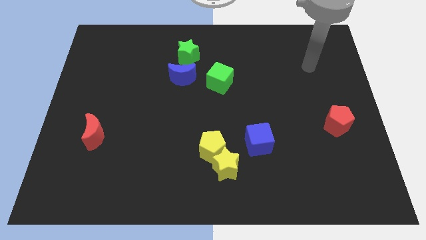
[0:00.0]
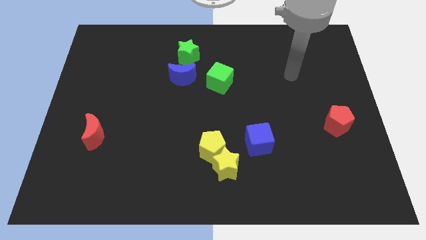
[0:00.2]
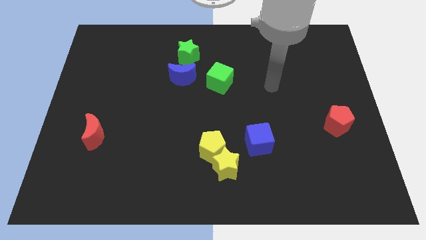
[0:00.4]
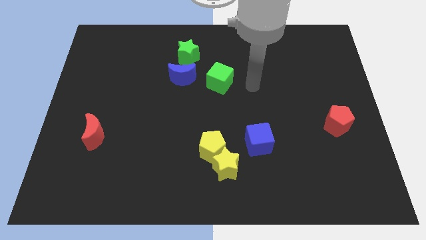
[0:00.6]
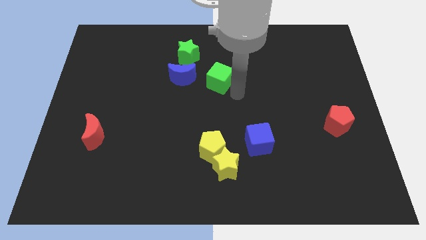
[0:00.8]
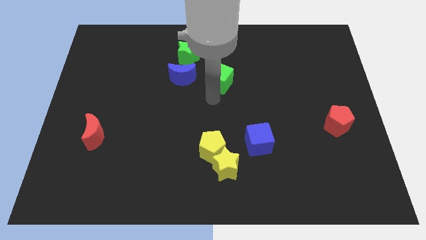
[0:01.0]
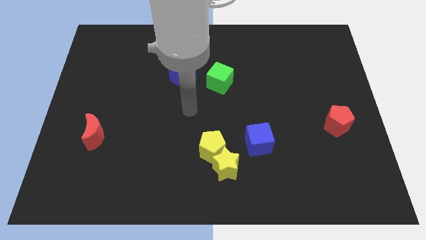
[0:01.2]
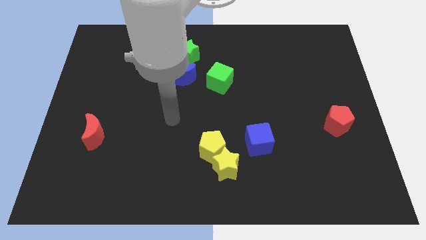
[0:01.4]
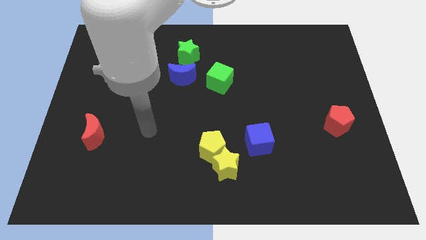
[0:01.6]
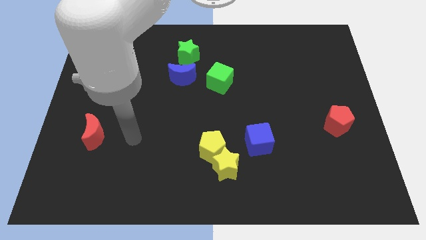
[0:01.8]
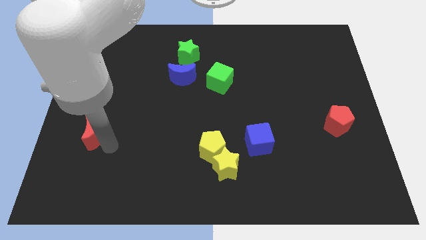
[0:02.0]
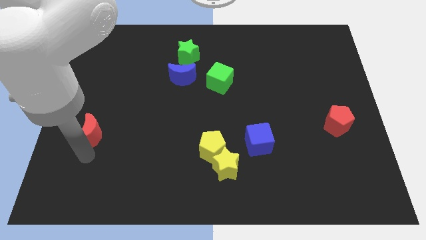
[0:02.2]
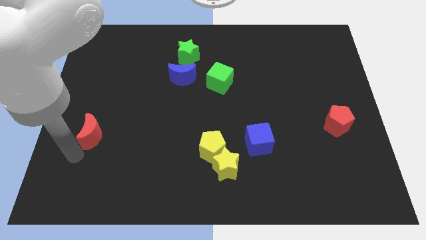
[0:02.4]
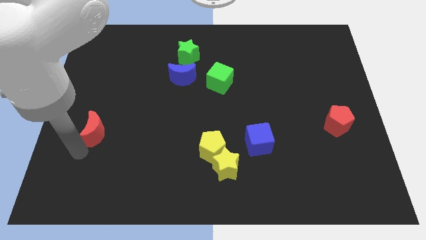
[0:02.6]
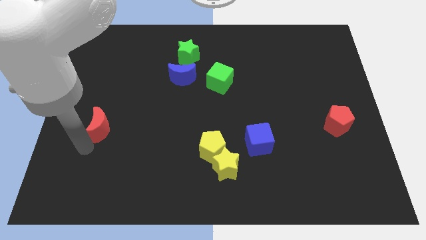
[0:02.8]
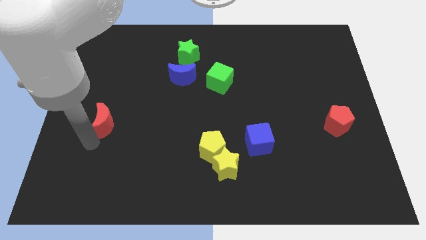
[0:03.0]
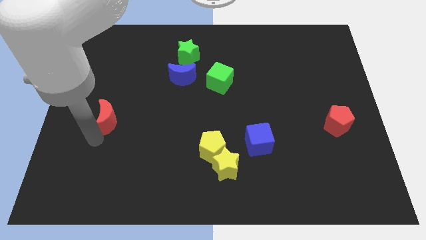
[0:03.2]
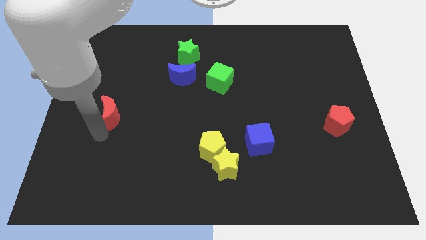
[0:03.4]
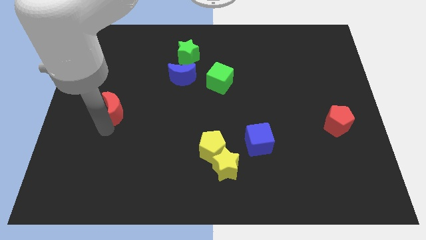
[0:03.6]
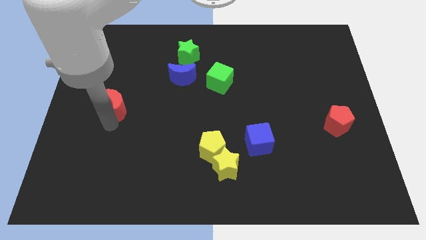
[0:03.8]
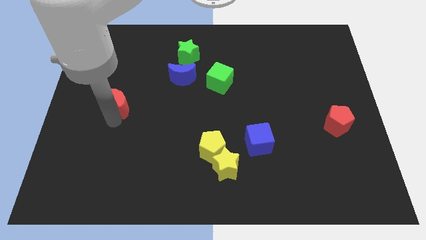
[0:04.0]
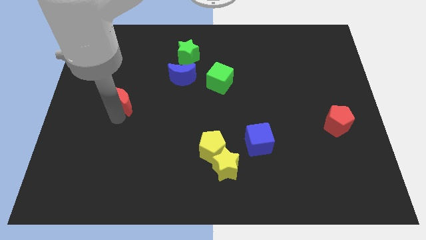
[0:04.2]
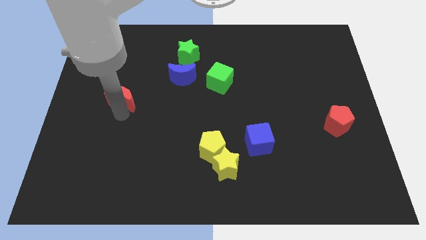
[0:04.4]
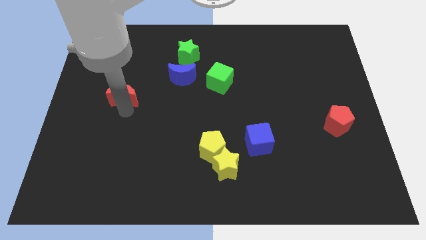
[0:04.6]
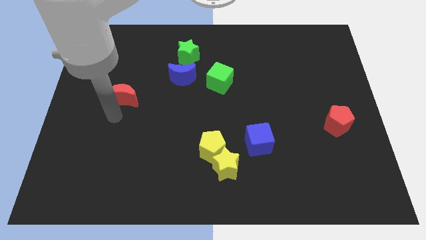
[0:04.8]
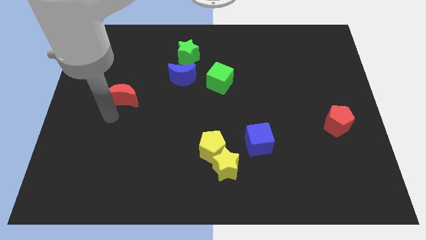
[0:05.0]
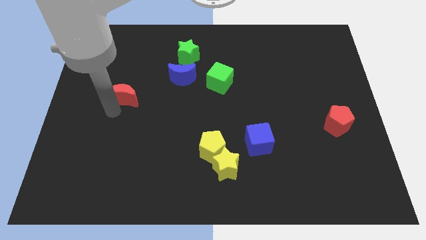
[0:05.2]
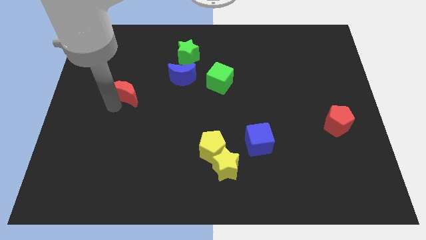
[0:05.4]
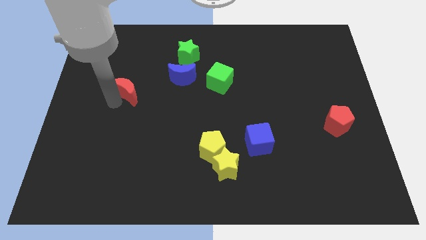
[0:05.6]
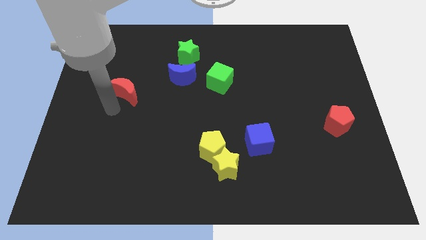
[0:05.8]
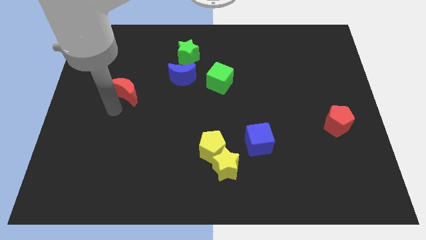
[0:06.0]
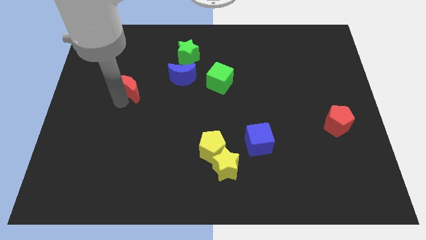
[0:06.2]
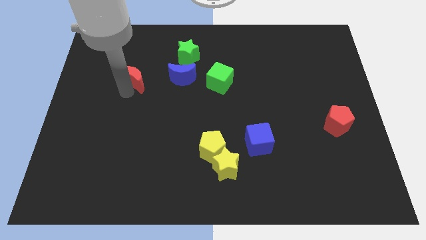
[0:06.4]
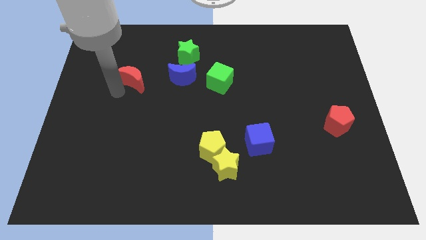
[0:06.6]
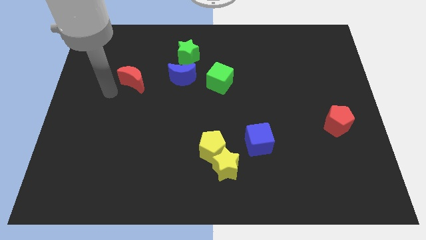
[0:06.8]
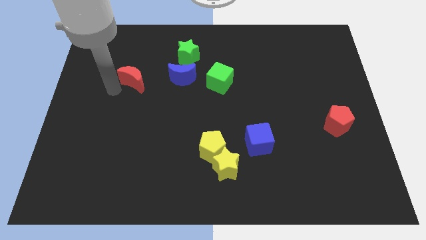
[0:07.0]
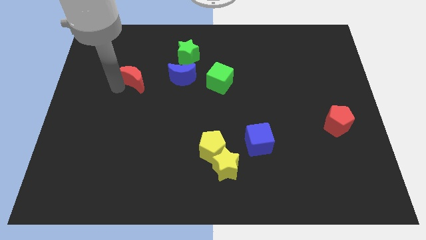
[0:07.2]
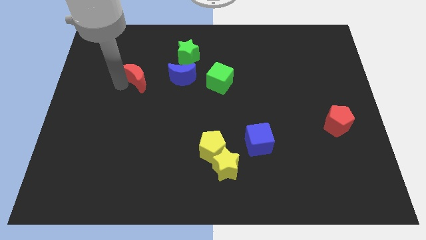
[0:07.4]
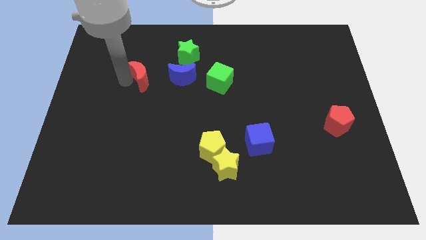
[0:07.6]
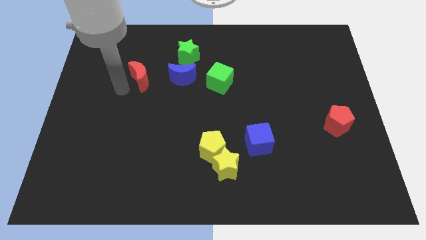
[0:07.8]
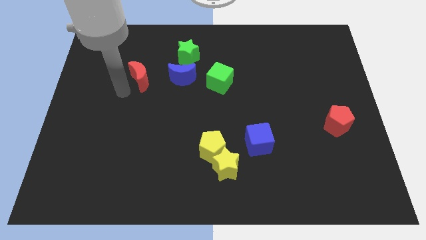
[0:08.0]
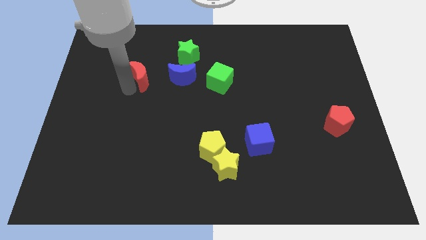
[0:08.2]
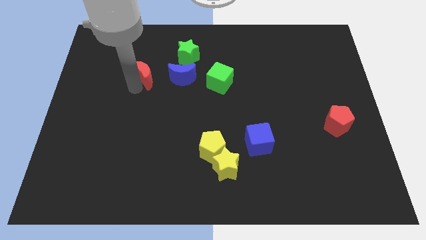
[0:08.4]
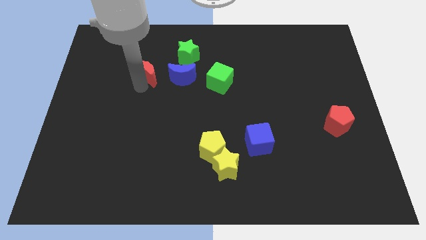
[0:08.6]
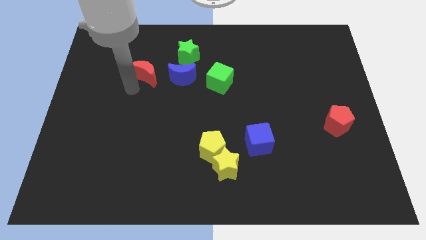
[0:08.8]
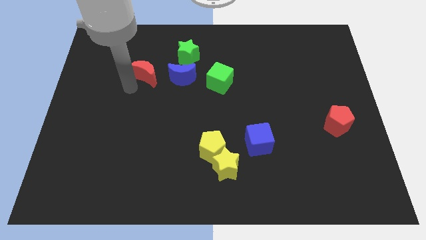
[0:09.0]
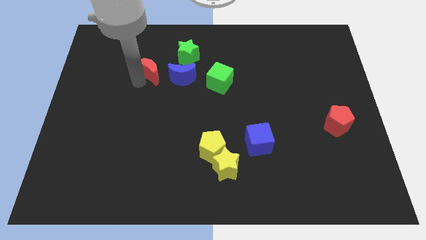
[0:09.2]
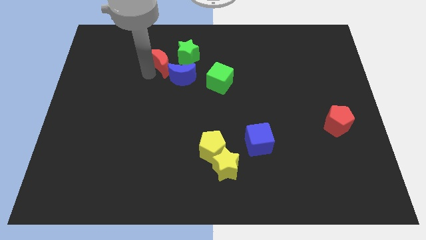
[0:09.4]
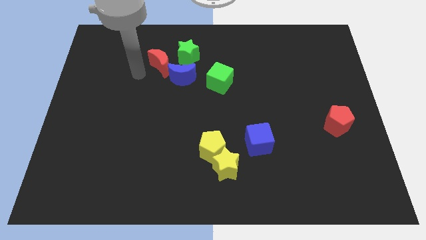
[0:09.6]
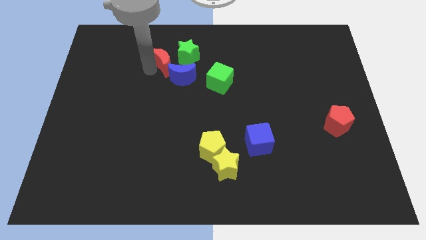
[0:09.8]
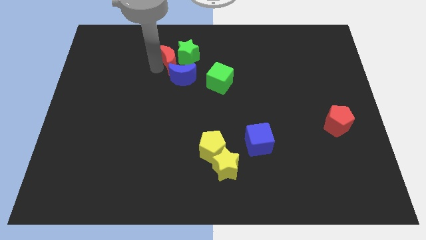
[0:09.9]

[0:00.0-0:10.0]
move the red moon next to the green star

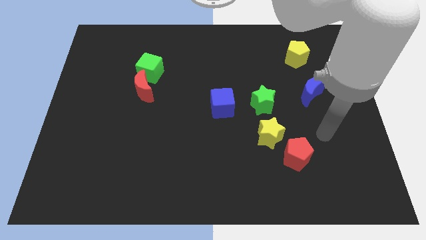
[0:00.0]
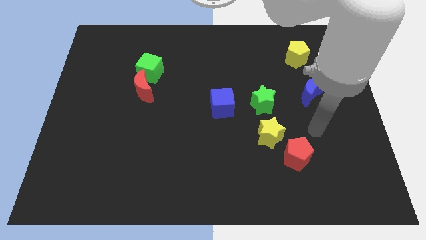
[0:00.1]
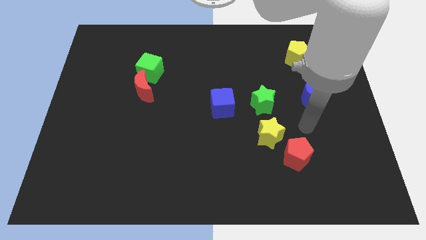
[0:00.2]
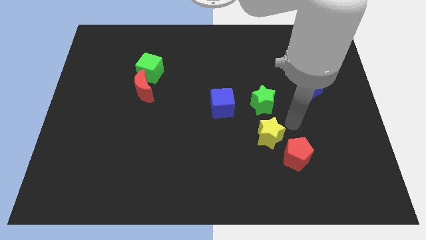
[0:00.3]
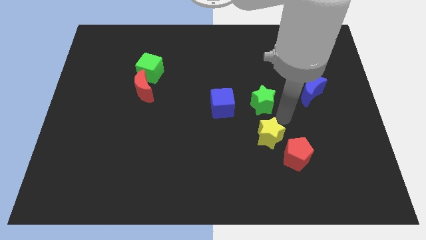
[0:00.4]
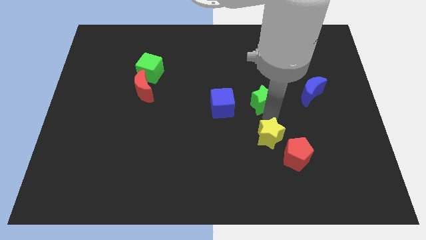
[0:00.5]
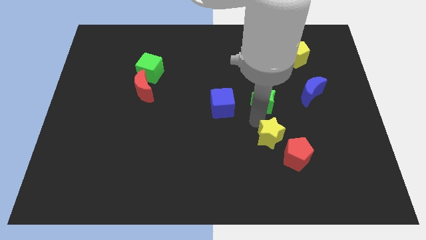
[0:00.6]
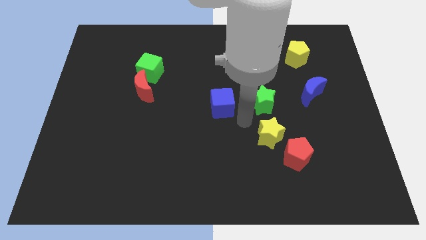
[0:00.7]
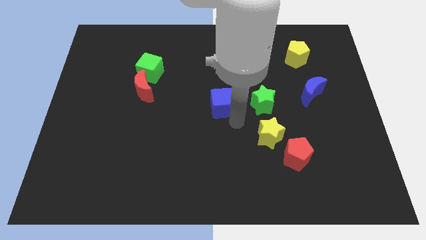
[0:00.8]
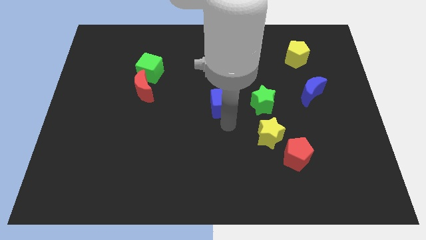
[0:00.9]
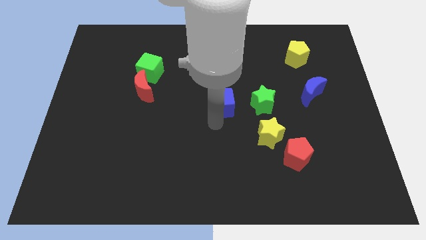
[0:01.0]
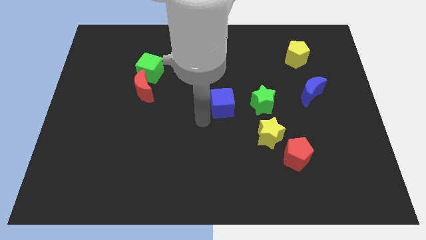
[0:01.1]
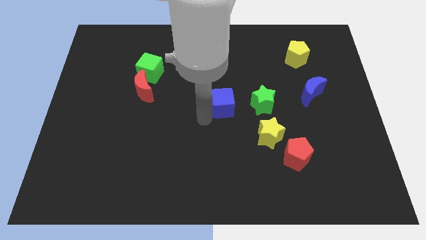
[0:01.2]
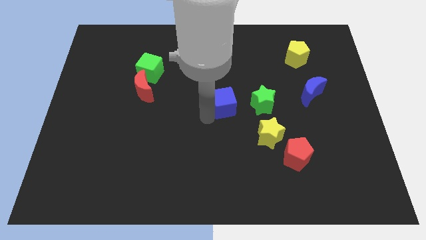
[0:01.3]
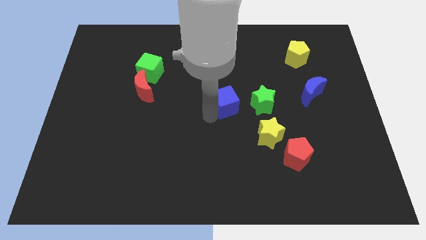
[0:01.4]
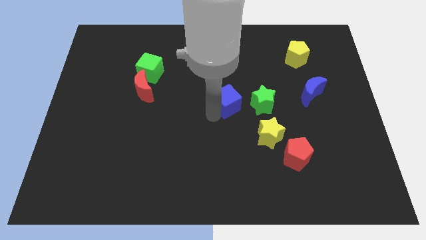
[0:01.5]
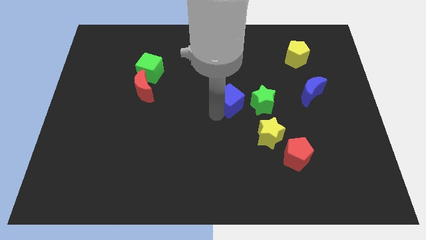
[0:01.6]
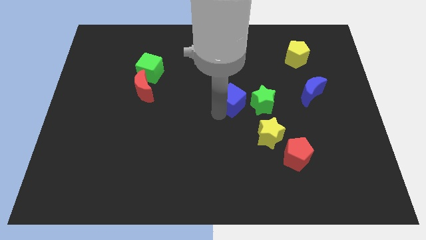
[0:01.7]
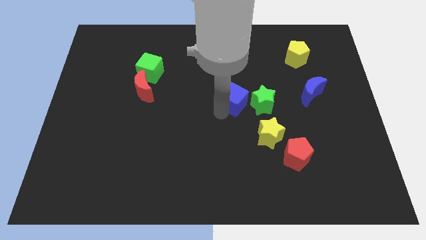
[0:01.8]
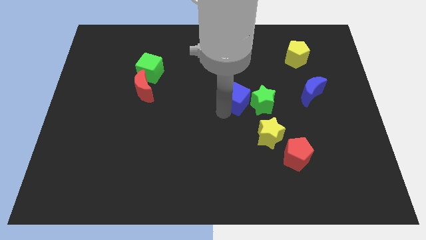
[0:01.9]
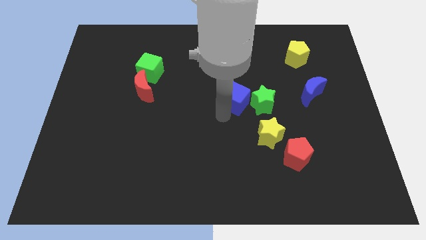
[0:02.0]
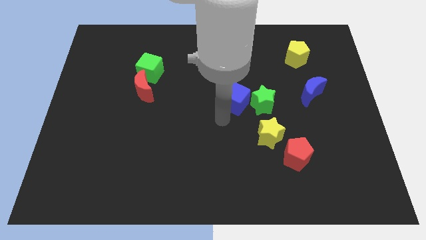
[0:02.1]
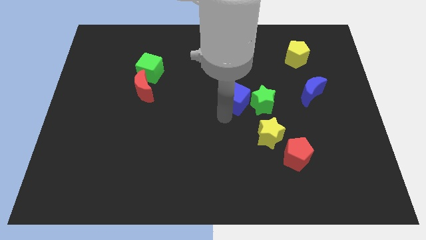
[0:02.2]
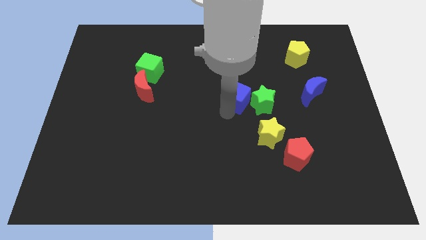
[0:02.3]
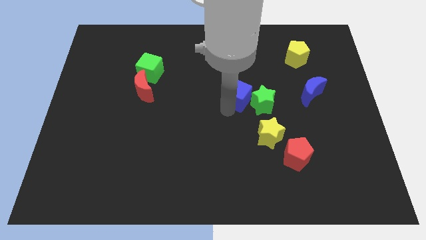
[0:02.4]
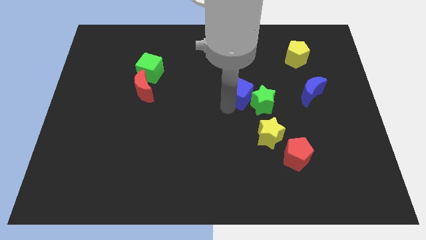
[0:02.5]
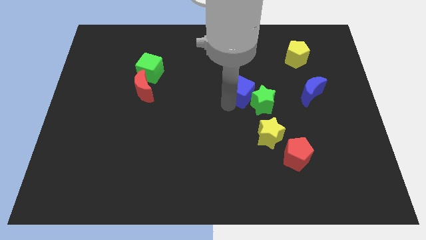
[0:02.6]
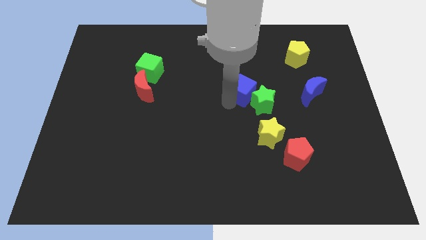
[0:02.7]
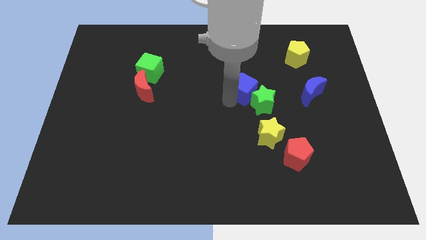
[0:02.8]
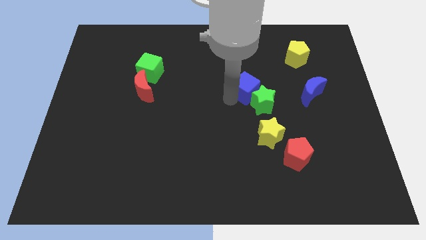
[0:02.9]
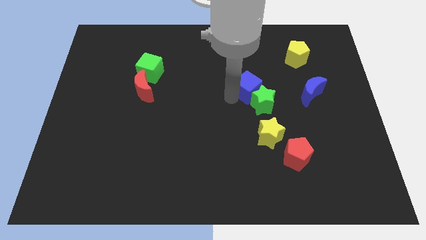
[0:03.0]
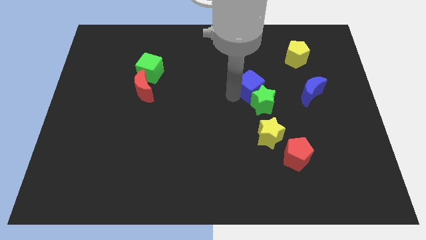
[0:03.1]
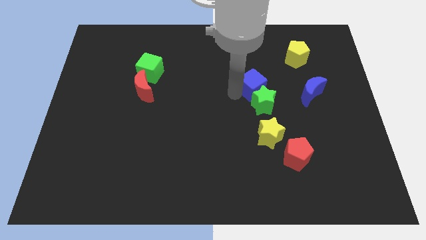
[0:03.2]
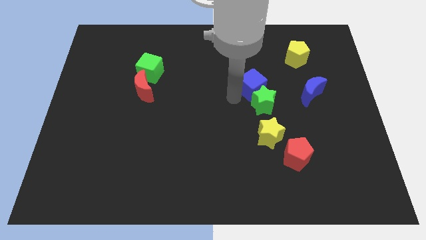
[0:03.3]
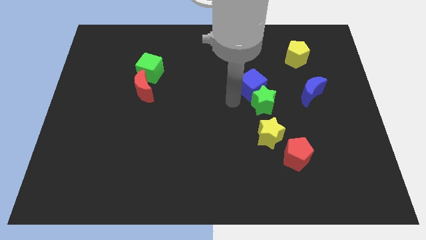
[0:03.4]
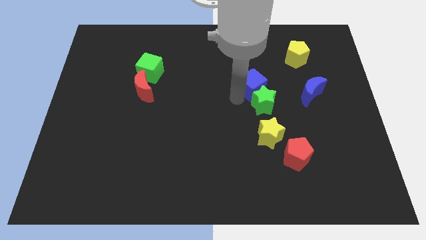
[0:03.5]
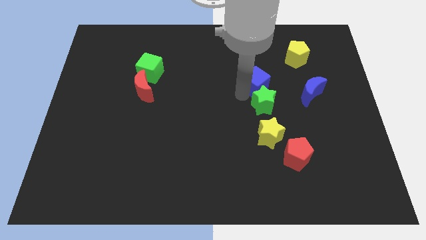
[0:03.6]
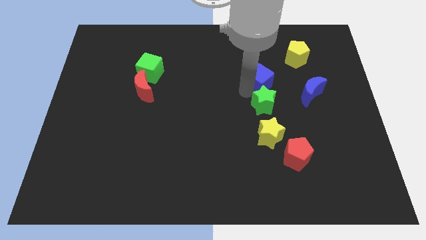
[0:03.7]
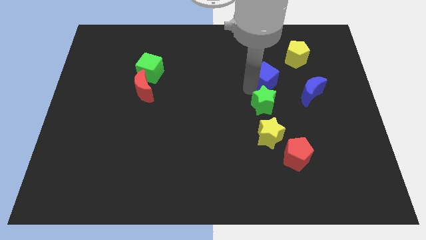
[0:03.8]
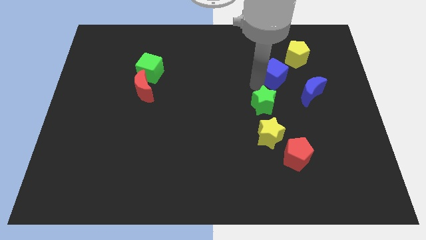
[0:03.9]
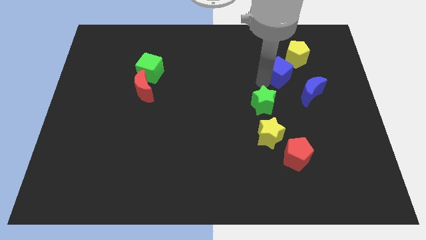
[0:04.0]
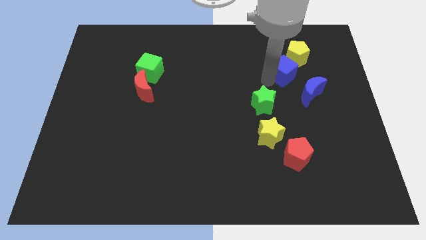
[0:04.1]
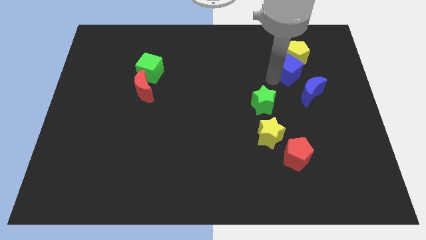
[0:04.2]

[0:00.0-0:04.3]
slide the blue cube close to the yellow pentagon
